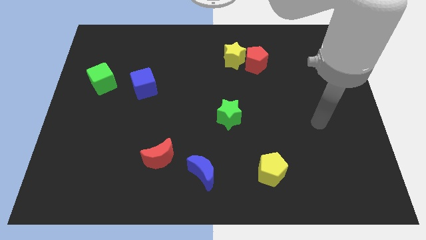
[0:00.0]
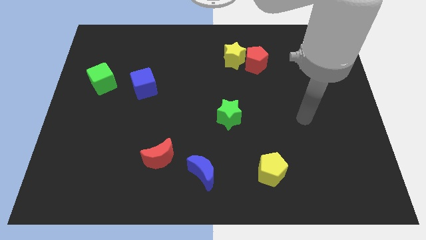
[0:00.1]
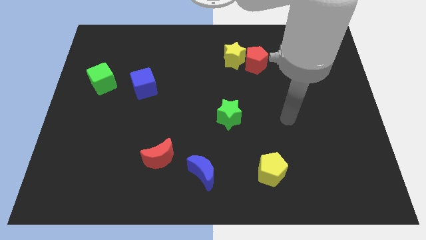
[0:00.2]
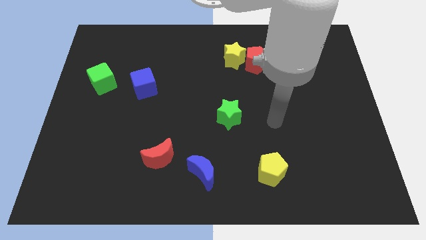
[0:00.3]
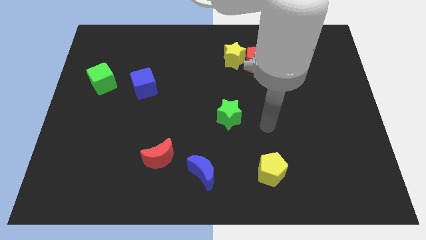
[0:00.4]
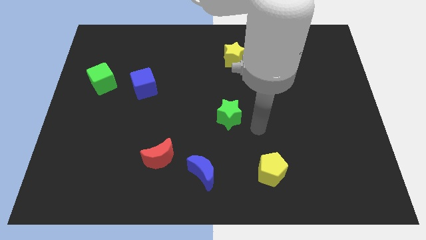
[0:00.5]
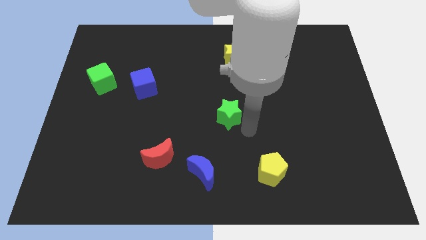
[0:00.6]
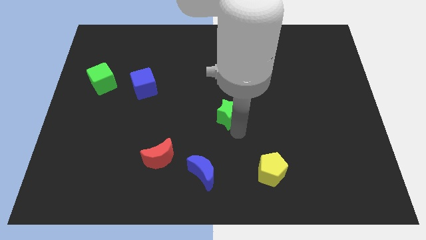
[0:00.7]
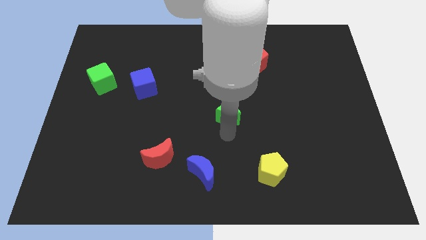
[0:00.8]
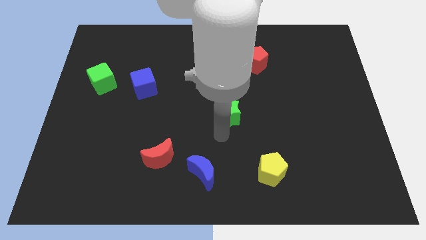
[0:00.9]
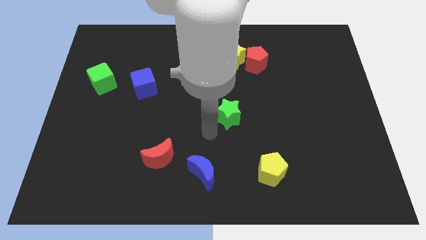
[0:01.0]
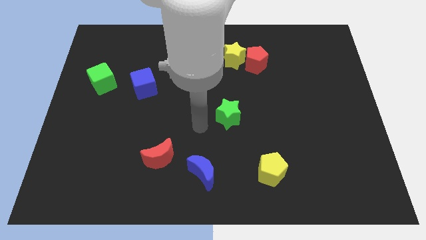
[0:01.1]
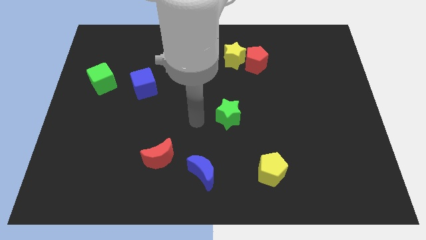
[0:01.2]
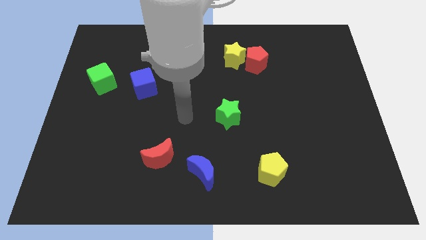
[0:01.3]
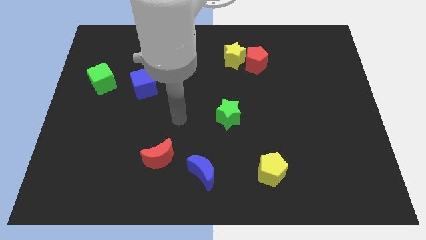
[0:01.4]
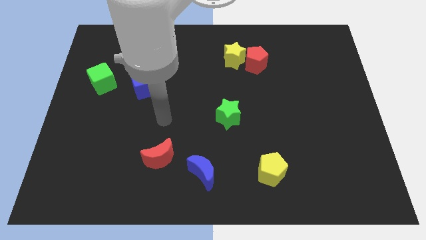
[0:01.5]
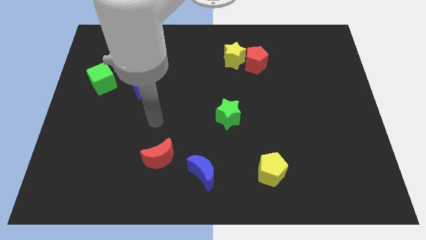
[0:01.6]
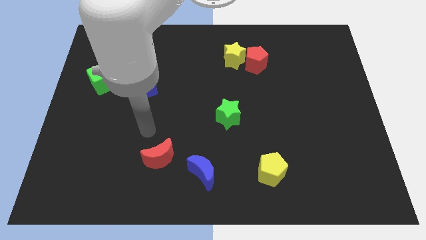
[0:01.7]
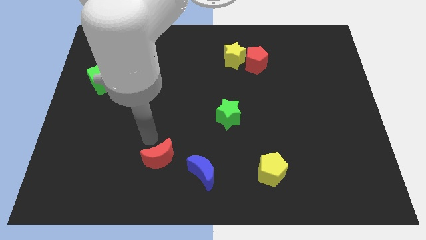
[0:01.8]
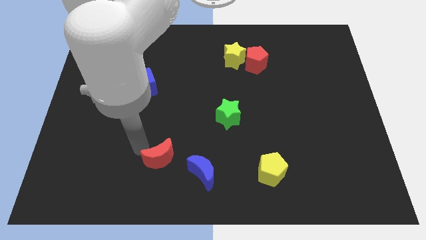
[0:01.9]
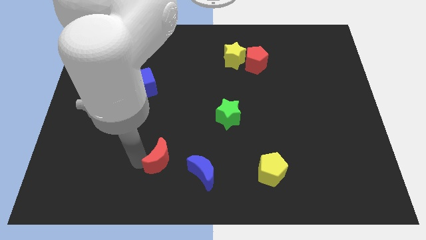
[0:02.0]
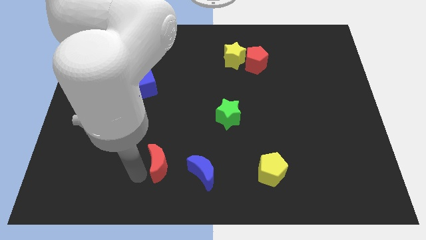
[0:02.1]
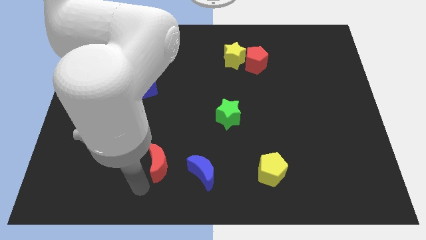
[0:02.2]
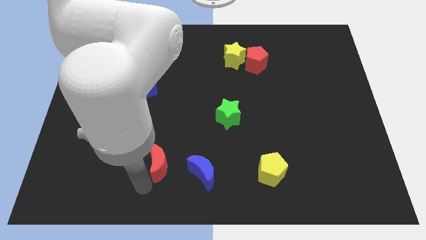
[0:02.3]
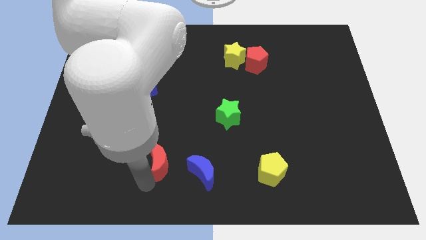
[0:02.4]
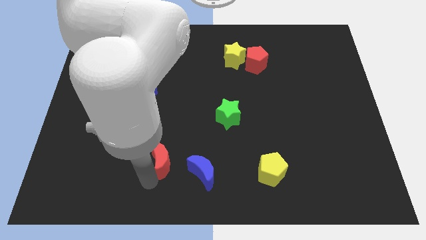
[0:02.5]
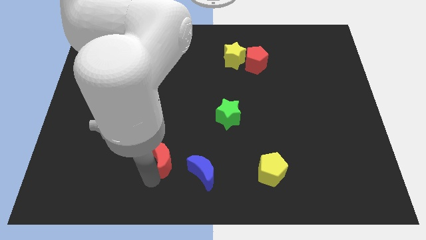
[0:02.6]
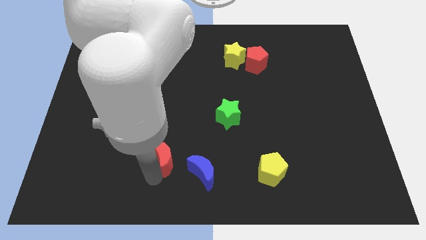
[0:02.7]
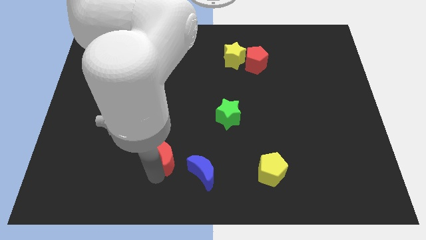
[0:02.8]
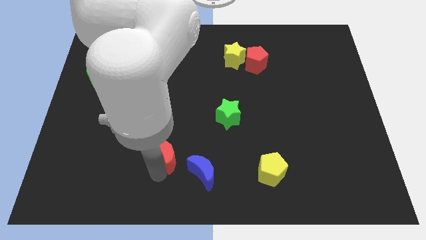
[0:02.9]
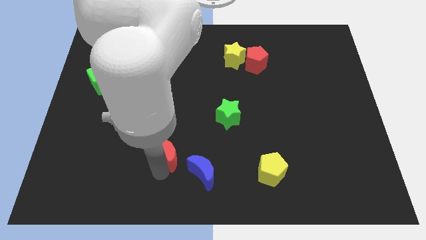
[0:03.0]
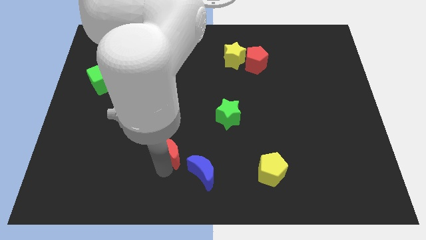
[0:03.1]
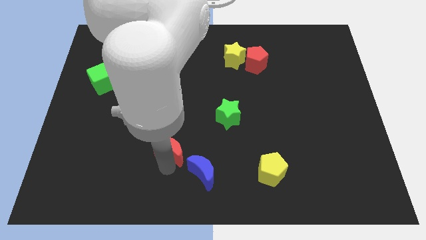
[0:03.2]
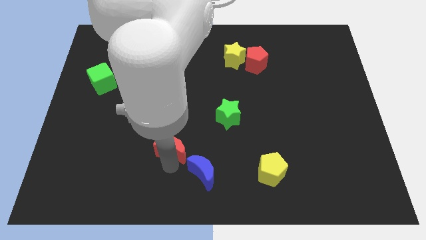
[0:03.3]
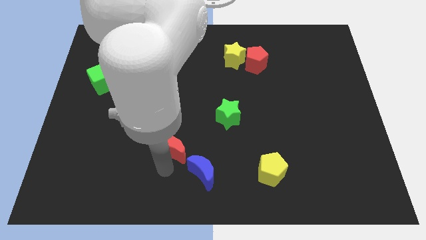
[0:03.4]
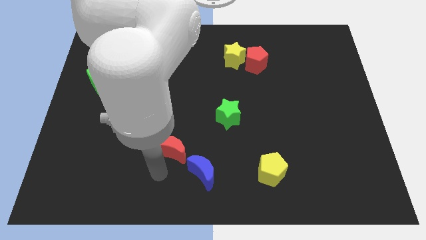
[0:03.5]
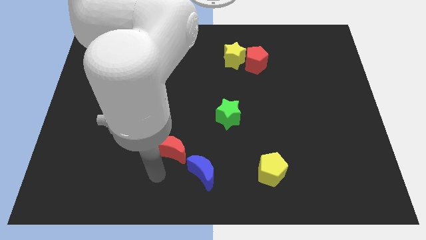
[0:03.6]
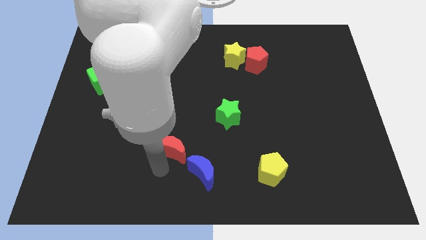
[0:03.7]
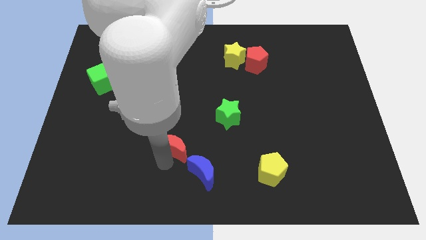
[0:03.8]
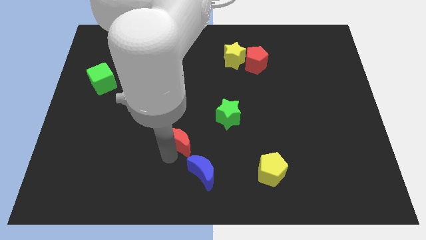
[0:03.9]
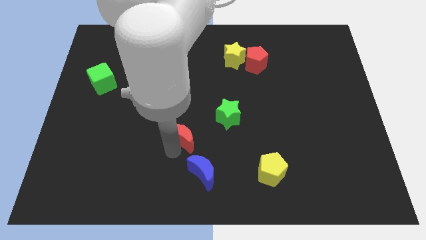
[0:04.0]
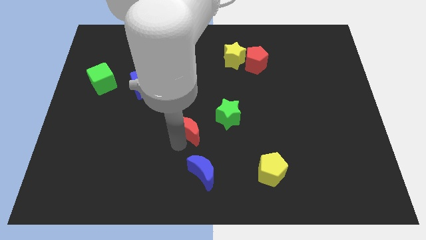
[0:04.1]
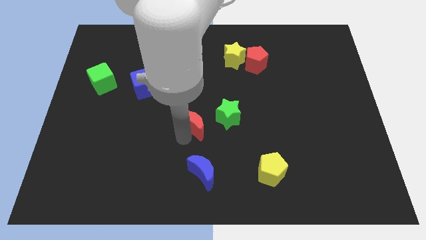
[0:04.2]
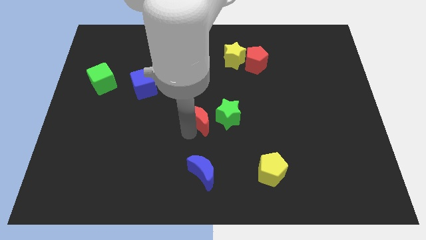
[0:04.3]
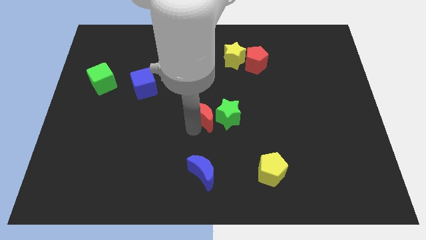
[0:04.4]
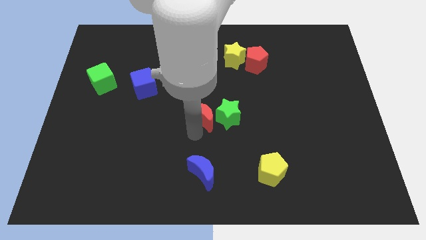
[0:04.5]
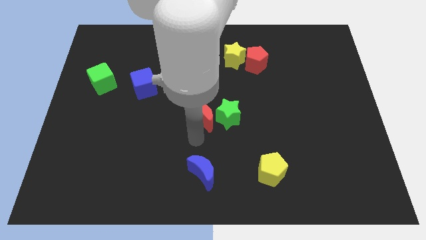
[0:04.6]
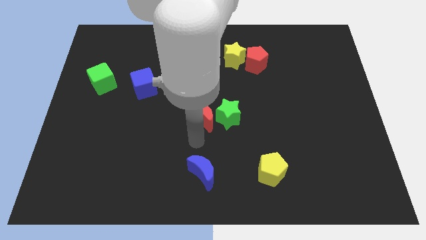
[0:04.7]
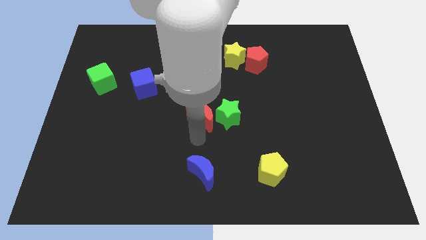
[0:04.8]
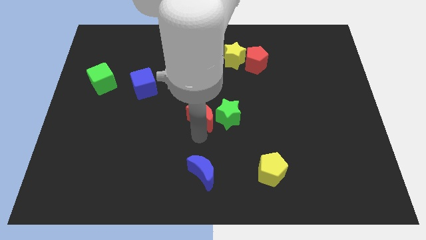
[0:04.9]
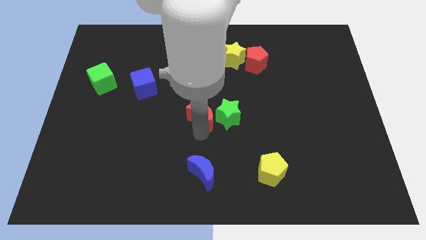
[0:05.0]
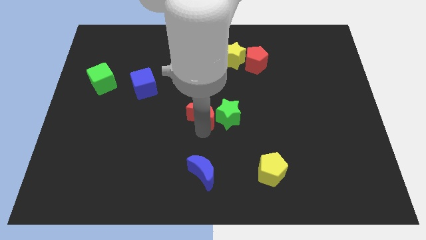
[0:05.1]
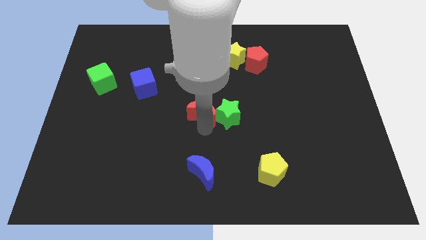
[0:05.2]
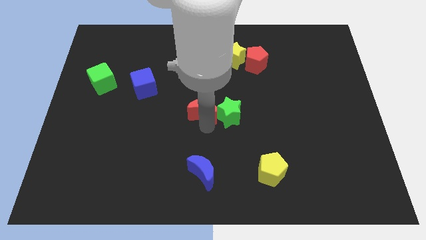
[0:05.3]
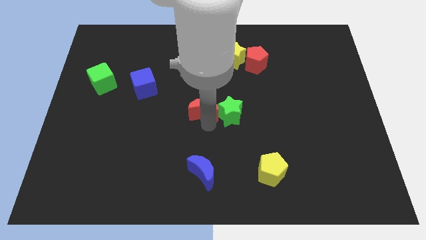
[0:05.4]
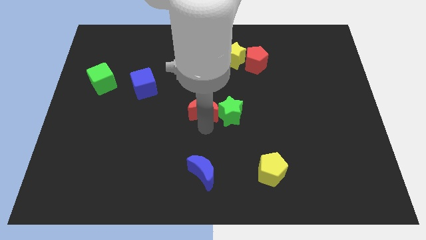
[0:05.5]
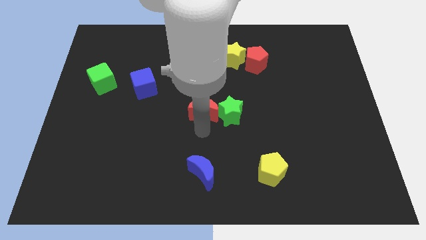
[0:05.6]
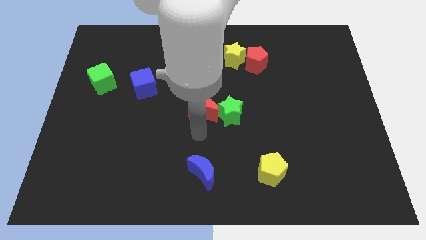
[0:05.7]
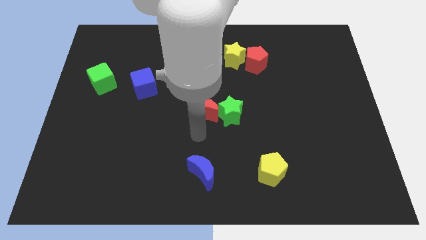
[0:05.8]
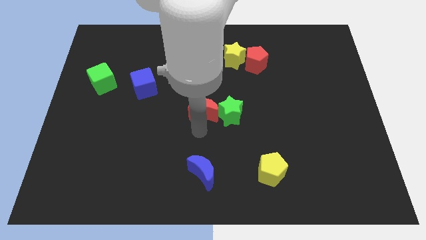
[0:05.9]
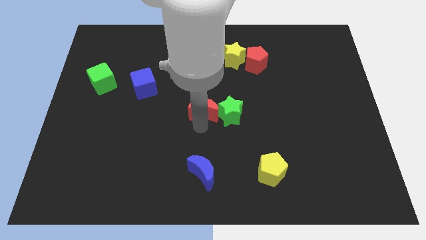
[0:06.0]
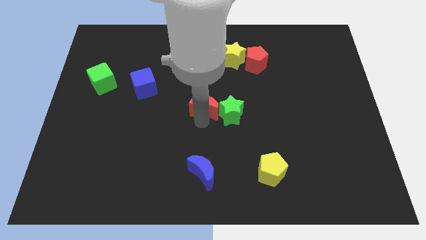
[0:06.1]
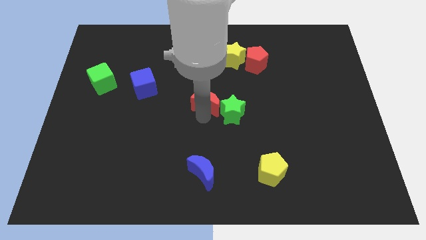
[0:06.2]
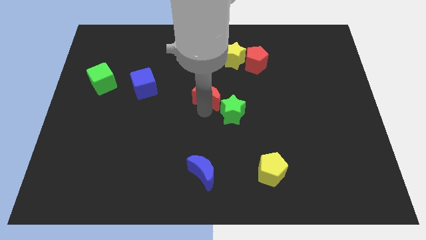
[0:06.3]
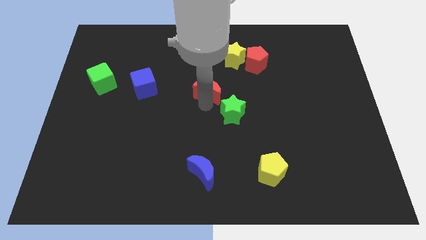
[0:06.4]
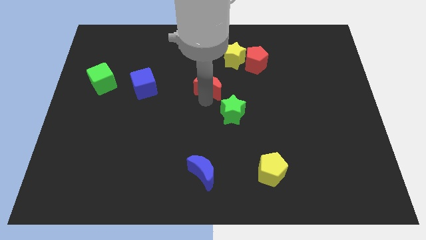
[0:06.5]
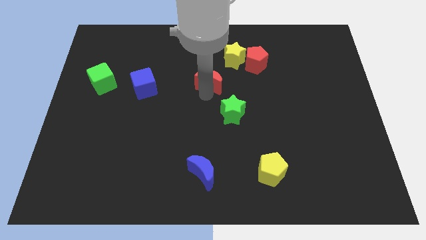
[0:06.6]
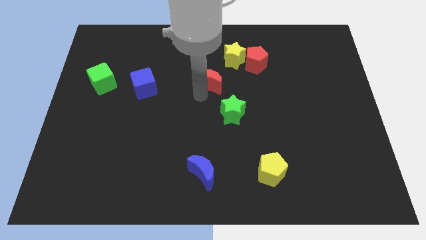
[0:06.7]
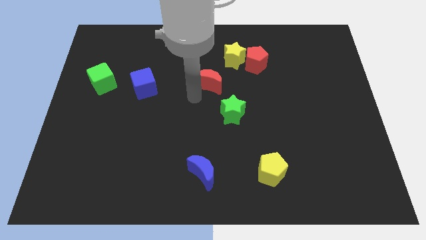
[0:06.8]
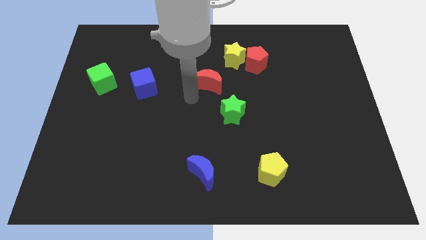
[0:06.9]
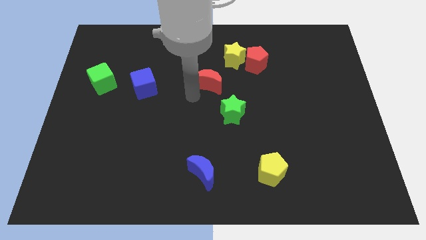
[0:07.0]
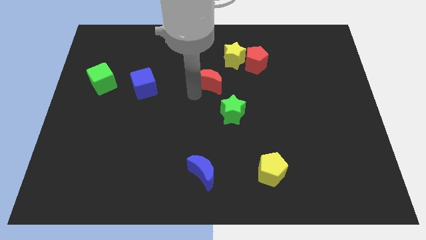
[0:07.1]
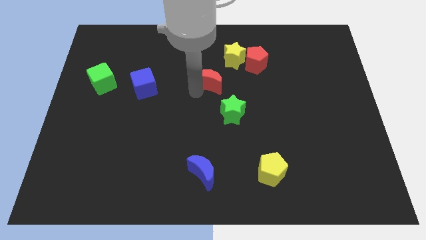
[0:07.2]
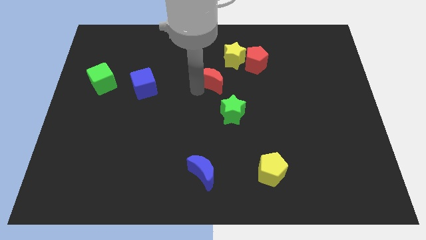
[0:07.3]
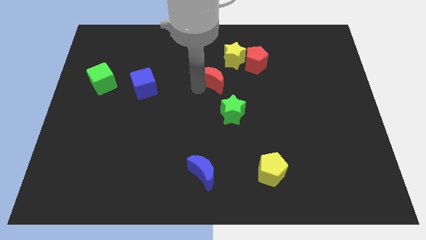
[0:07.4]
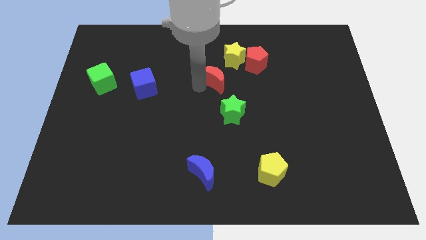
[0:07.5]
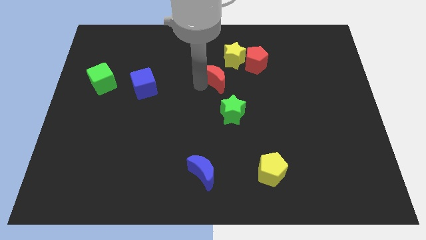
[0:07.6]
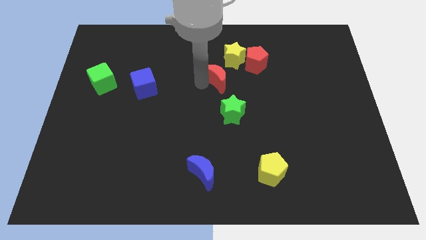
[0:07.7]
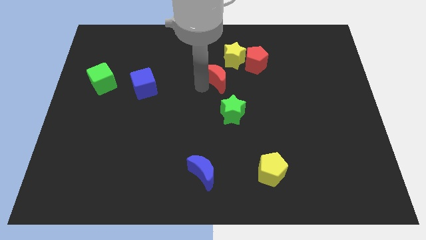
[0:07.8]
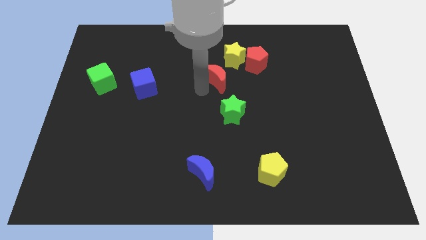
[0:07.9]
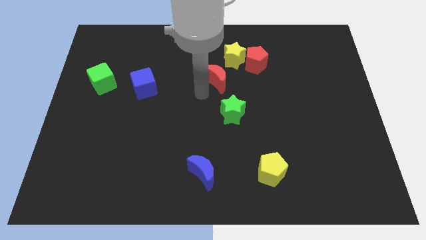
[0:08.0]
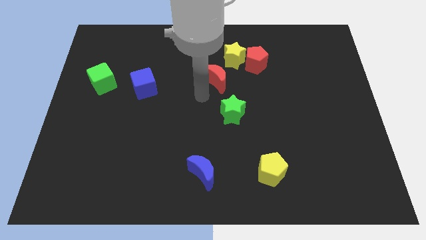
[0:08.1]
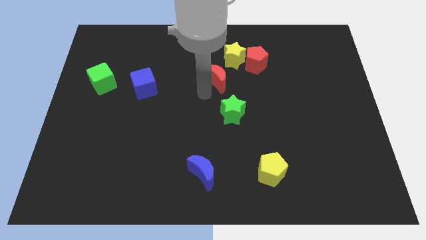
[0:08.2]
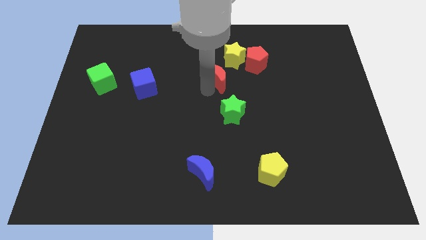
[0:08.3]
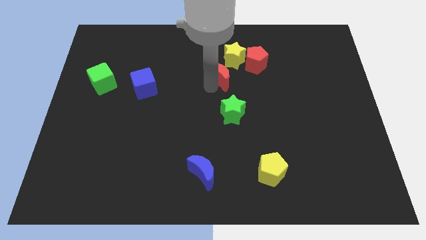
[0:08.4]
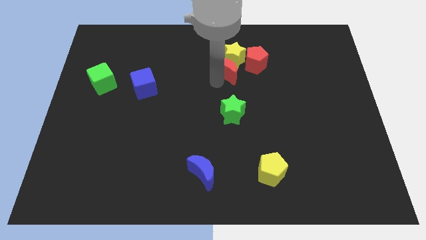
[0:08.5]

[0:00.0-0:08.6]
move the red moon to the yellow star
